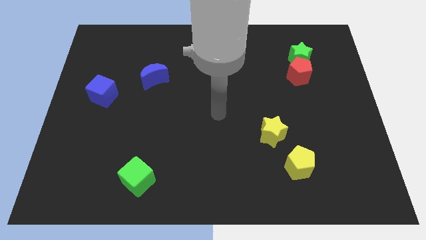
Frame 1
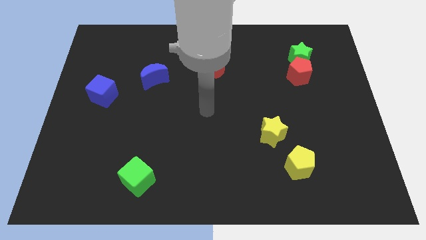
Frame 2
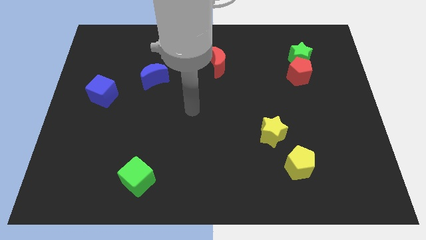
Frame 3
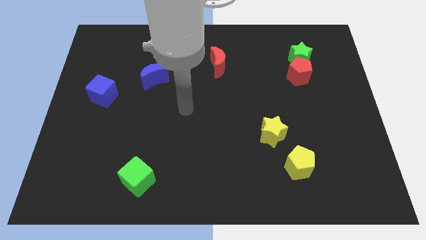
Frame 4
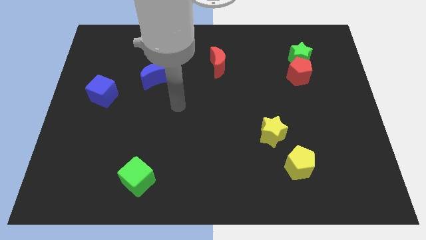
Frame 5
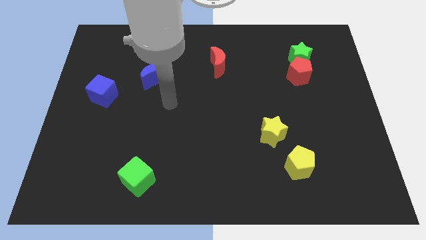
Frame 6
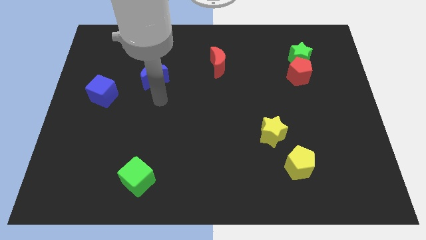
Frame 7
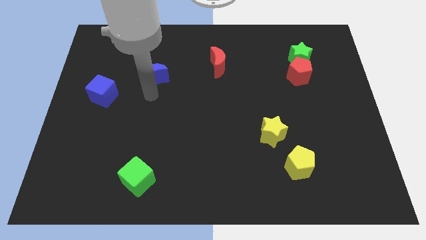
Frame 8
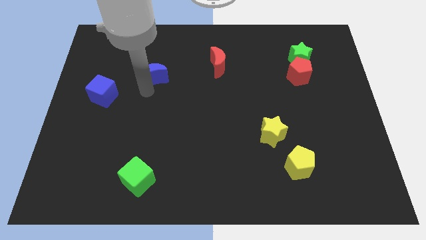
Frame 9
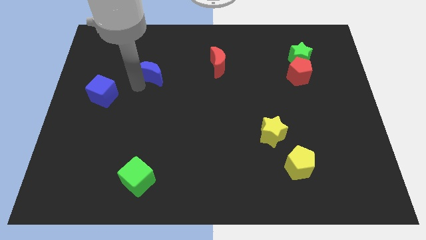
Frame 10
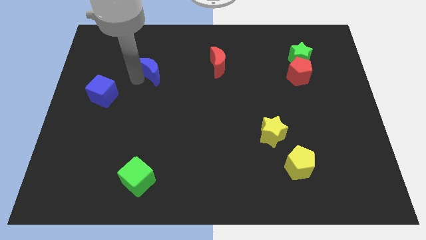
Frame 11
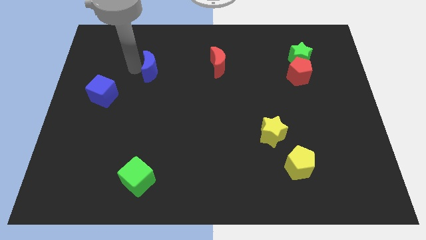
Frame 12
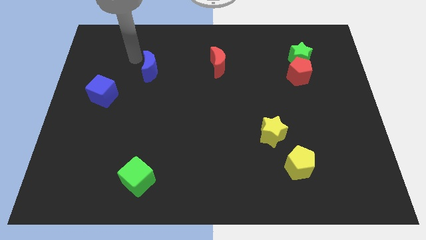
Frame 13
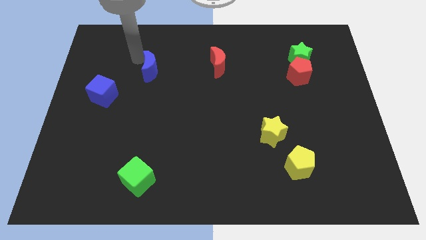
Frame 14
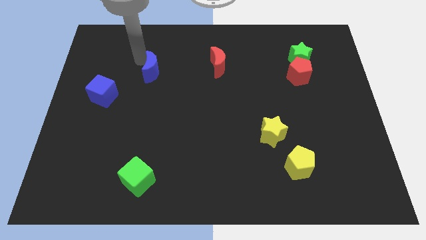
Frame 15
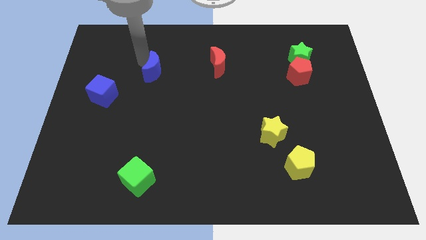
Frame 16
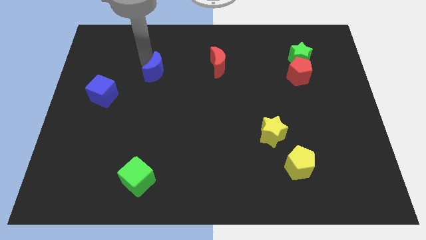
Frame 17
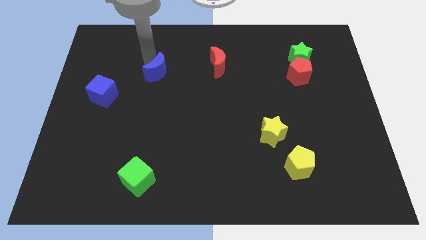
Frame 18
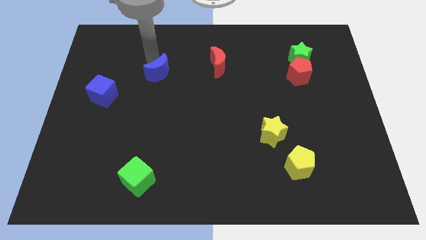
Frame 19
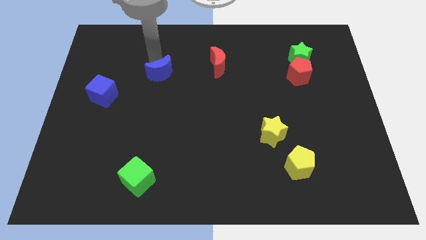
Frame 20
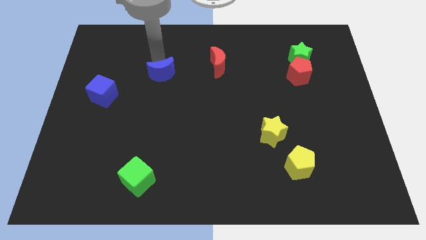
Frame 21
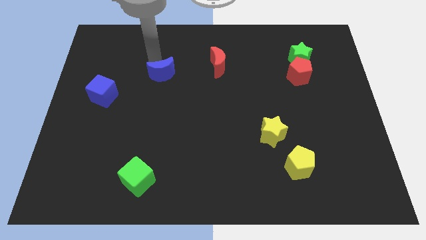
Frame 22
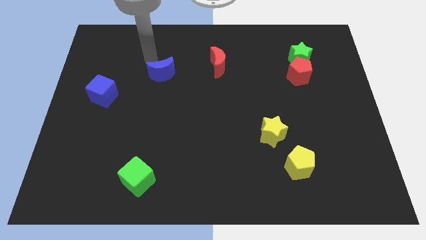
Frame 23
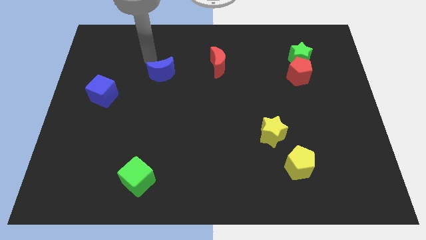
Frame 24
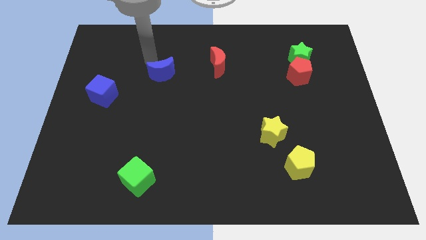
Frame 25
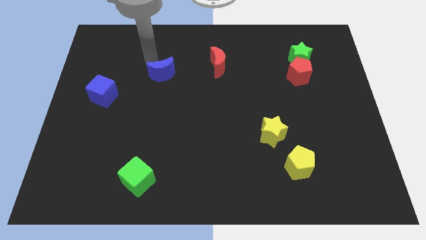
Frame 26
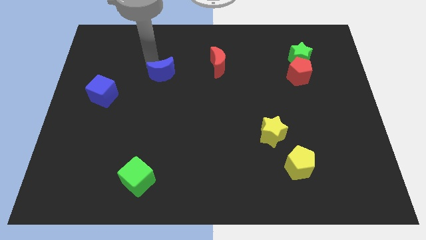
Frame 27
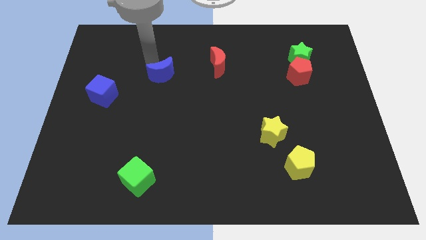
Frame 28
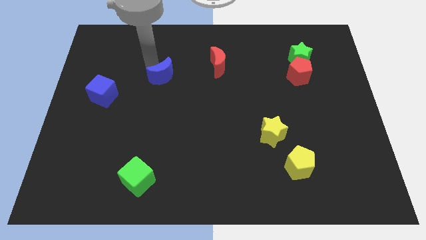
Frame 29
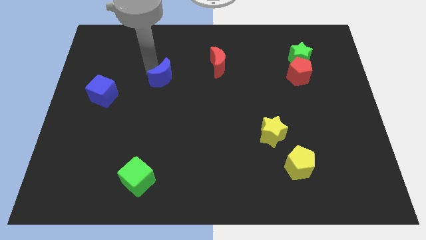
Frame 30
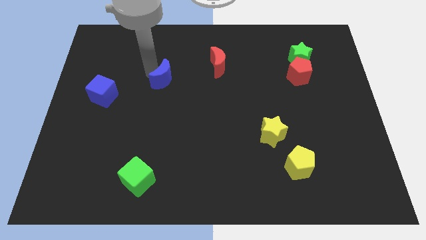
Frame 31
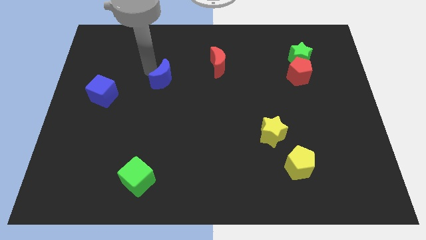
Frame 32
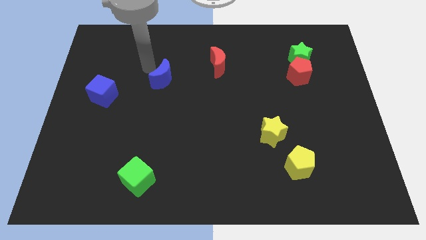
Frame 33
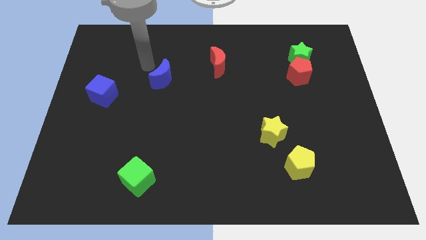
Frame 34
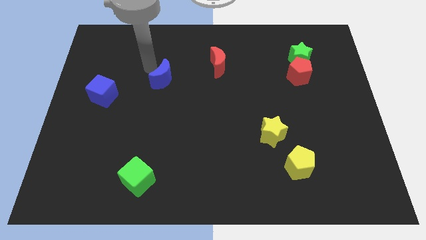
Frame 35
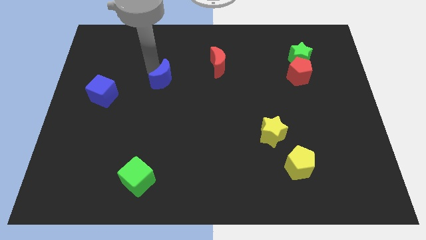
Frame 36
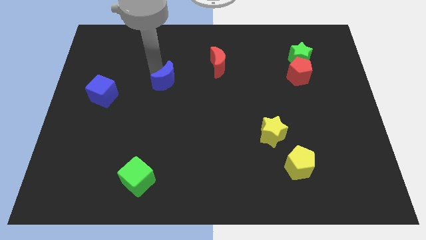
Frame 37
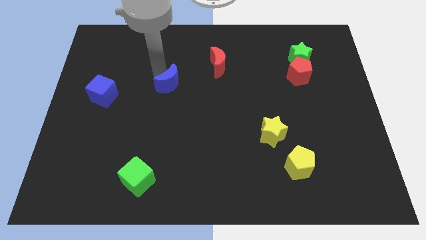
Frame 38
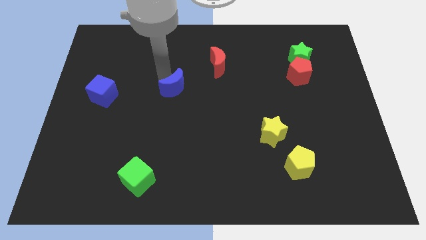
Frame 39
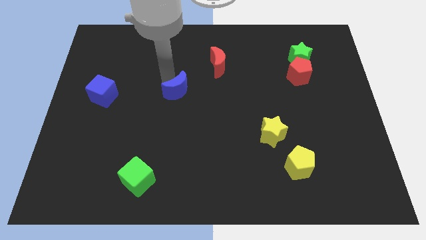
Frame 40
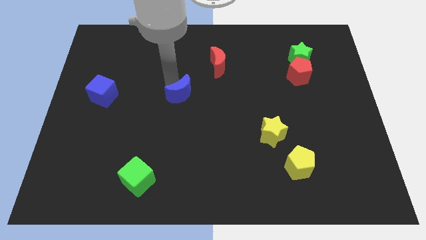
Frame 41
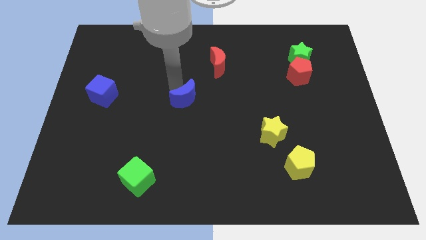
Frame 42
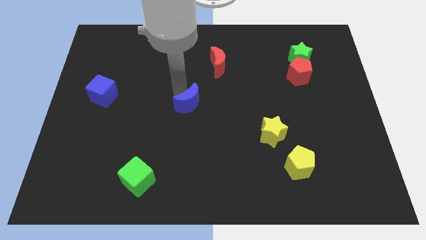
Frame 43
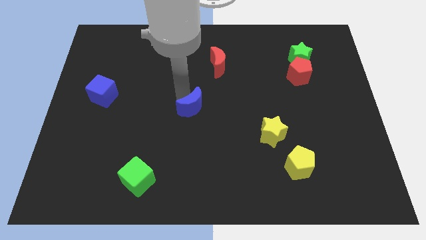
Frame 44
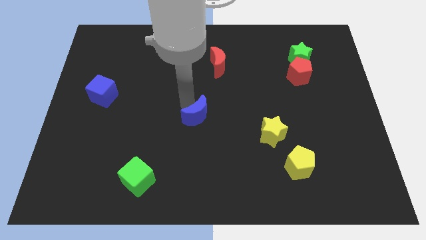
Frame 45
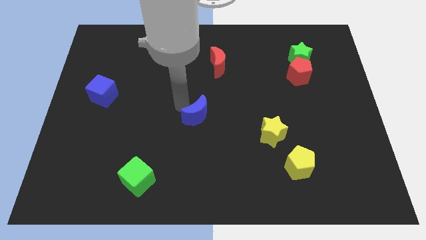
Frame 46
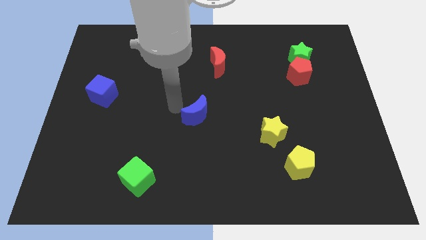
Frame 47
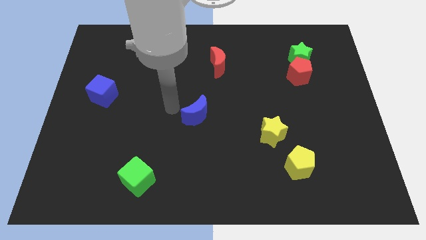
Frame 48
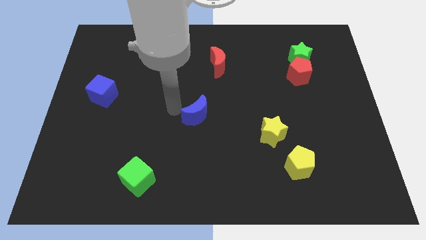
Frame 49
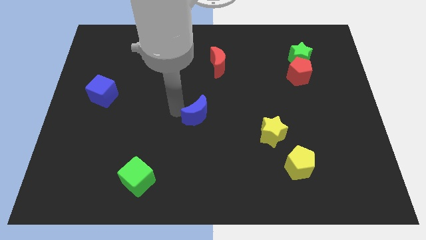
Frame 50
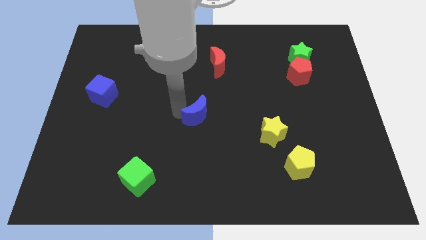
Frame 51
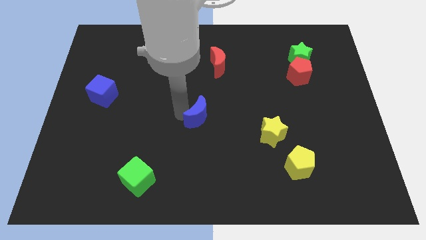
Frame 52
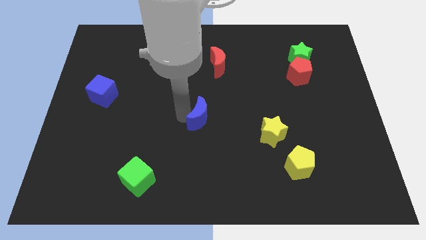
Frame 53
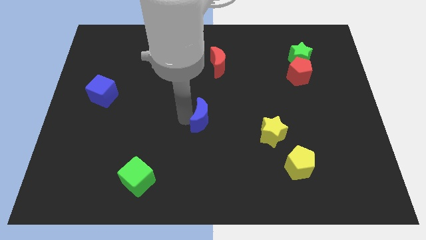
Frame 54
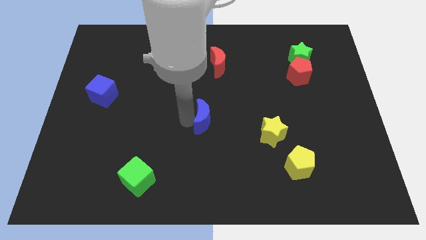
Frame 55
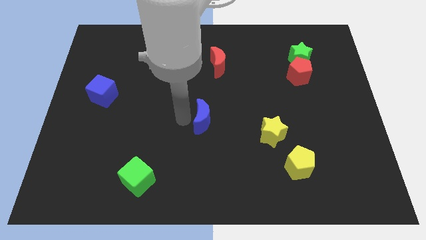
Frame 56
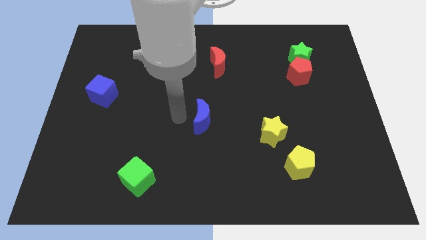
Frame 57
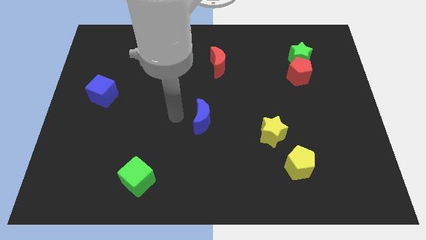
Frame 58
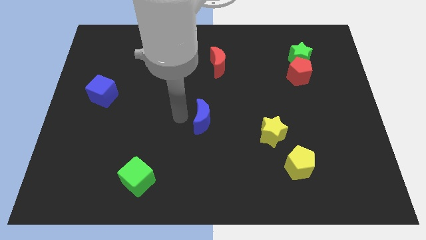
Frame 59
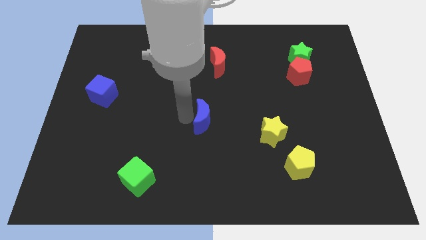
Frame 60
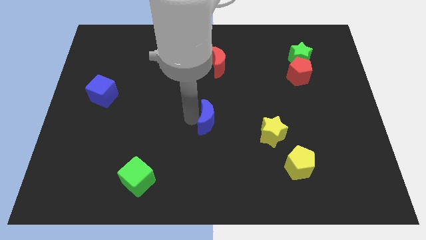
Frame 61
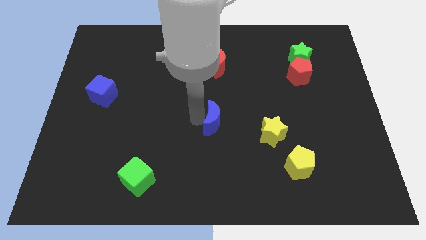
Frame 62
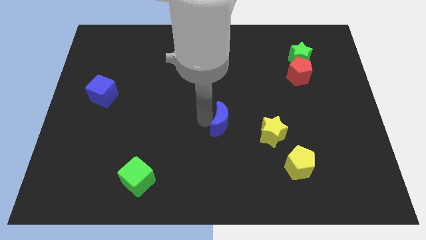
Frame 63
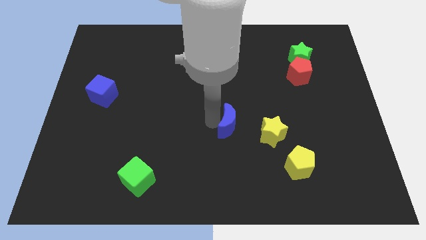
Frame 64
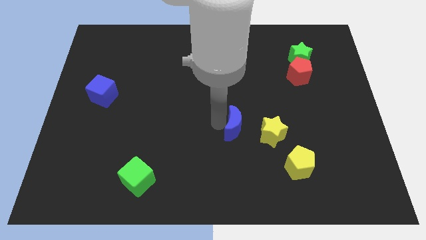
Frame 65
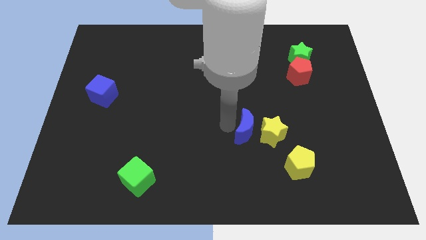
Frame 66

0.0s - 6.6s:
put the blue moon next to the yellow star

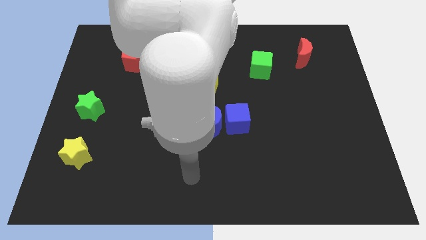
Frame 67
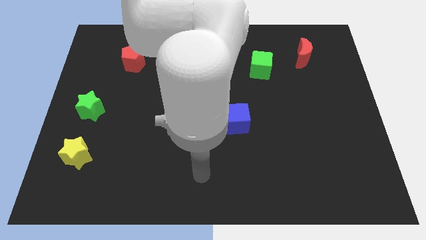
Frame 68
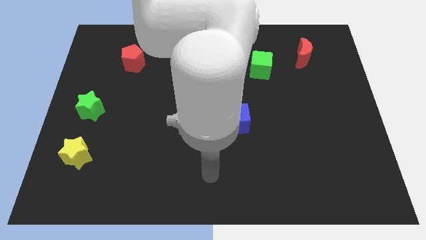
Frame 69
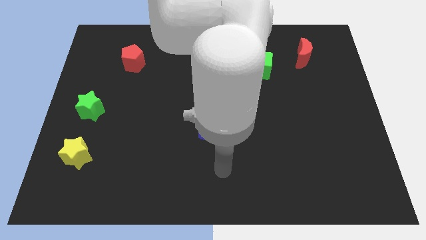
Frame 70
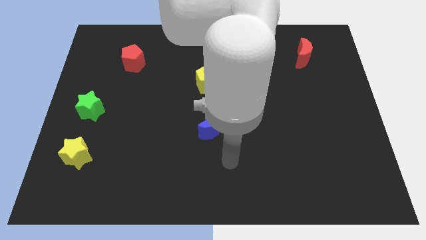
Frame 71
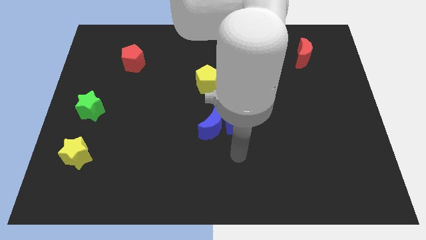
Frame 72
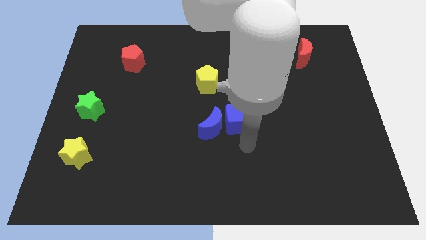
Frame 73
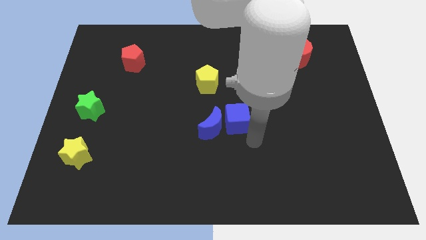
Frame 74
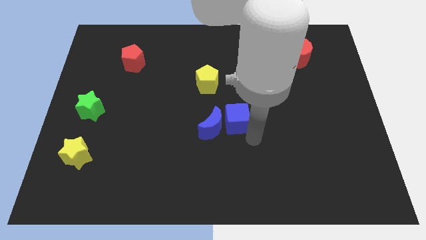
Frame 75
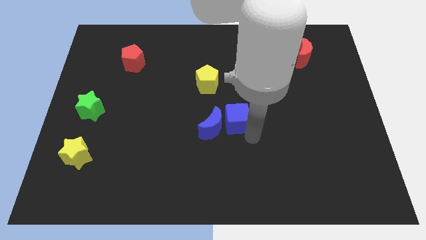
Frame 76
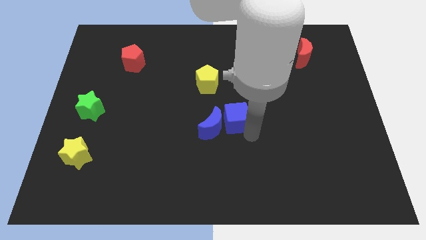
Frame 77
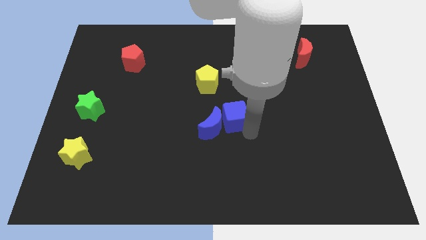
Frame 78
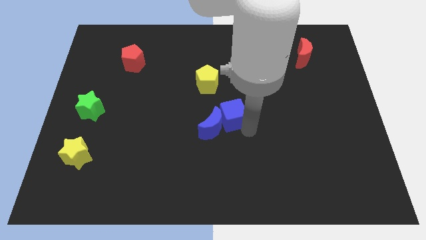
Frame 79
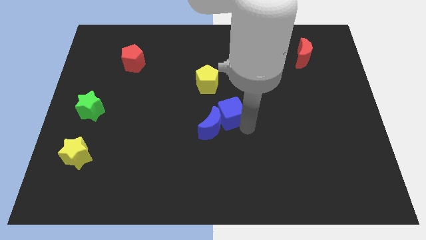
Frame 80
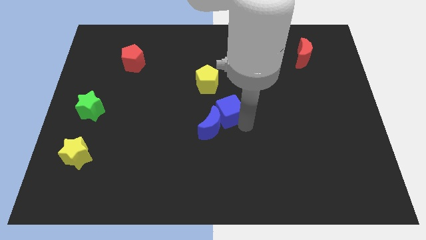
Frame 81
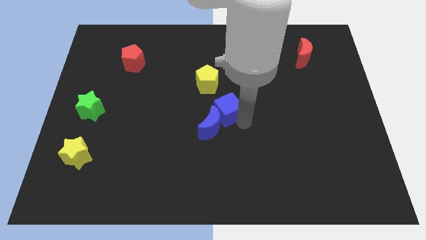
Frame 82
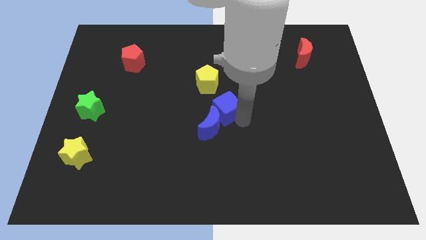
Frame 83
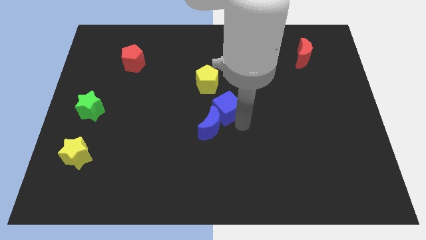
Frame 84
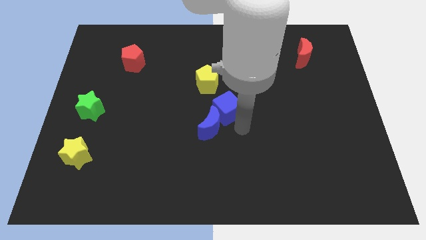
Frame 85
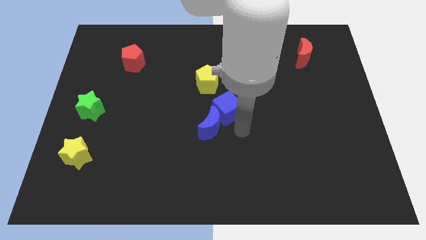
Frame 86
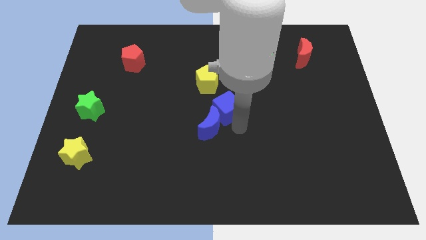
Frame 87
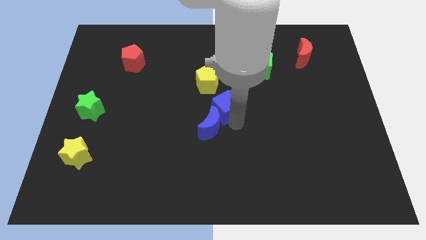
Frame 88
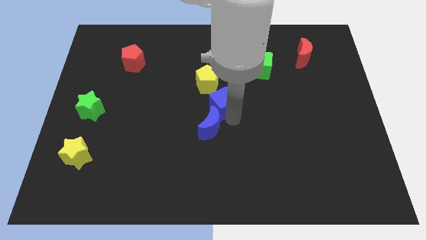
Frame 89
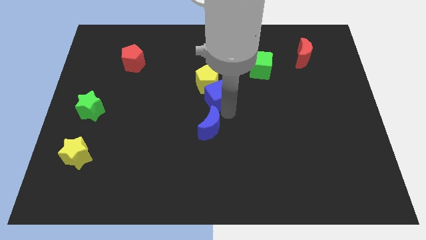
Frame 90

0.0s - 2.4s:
slide the blue cube close to the yellow pentagon
